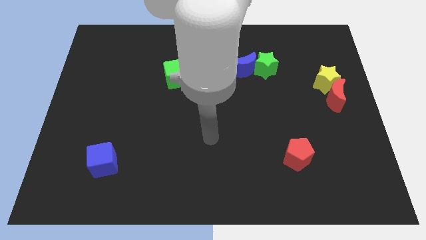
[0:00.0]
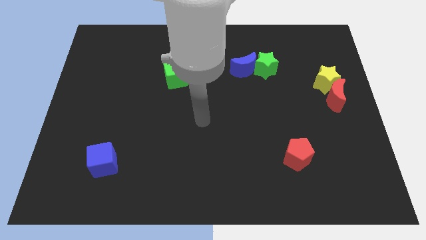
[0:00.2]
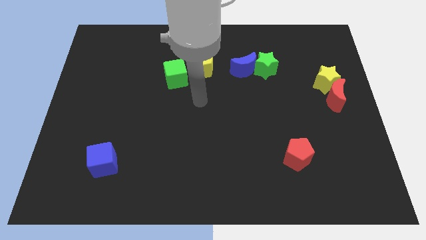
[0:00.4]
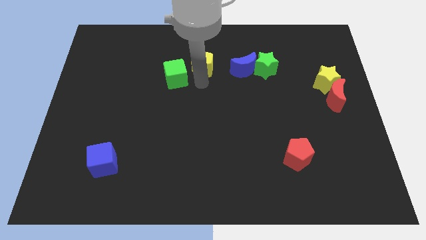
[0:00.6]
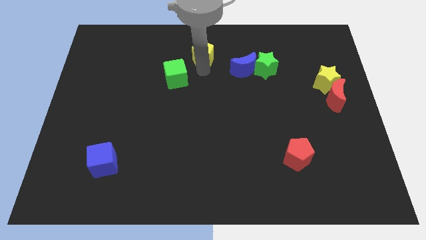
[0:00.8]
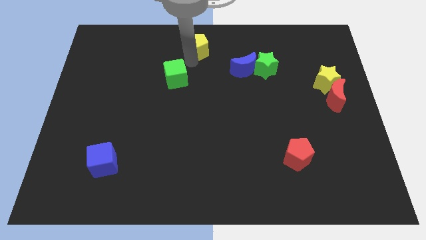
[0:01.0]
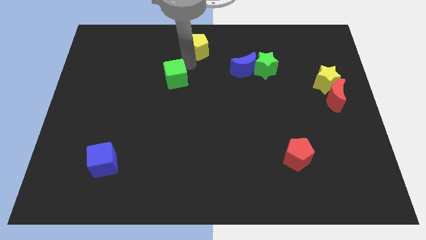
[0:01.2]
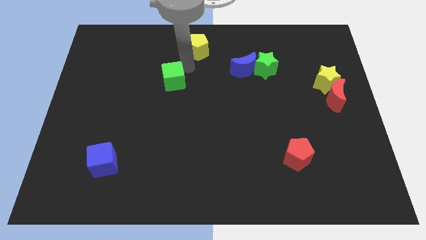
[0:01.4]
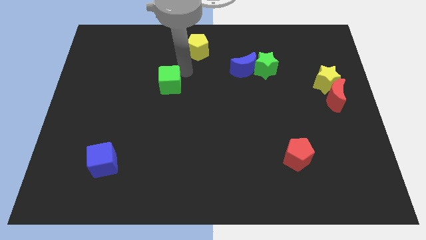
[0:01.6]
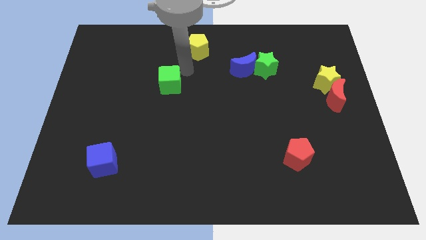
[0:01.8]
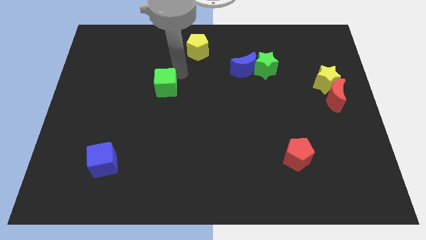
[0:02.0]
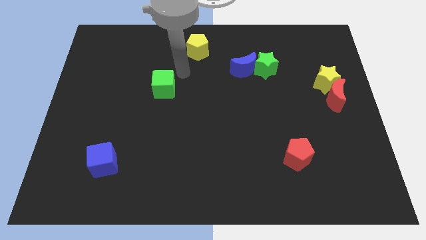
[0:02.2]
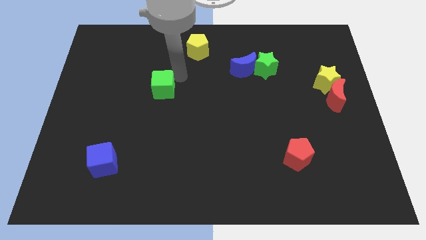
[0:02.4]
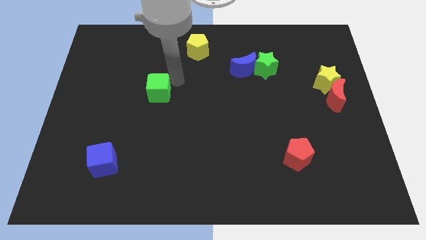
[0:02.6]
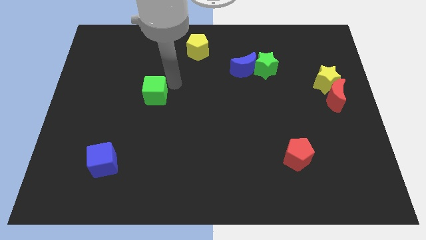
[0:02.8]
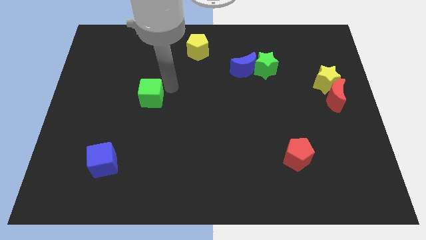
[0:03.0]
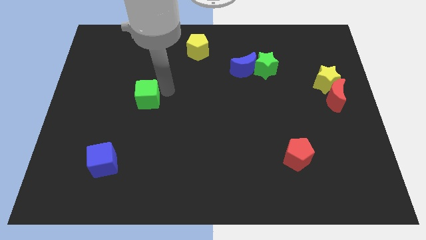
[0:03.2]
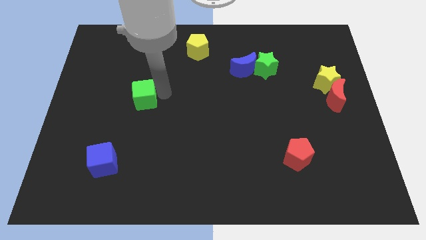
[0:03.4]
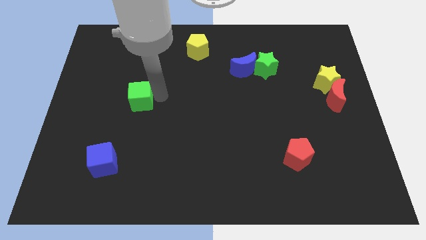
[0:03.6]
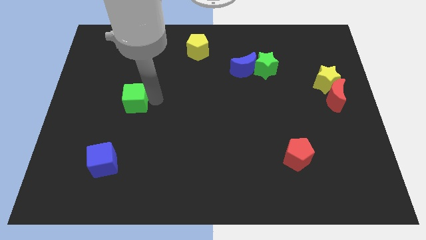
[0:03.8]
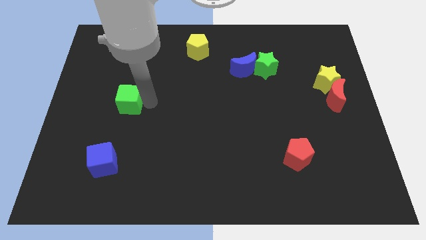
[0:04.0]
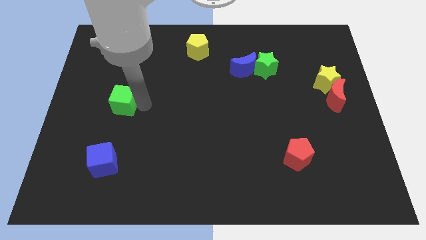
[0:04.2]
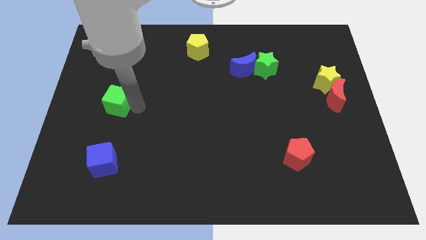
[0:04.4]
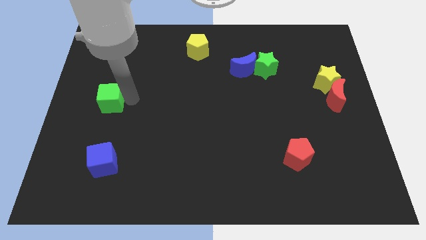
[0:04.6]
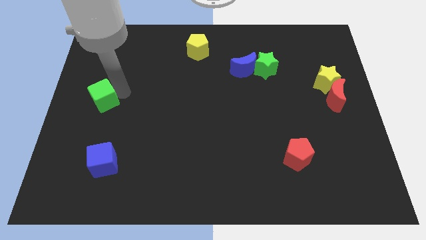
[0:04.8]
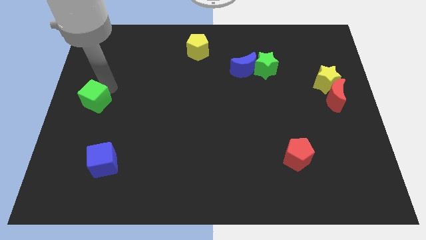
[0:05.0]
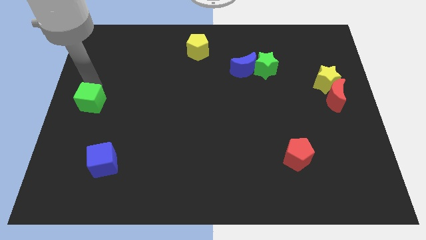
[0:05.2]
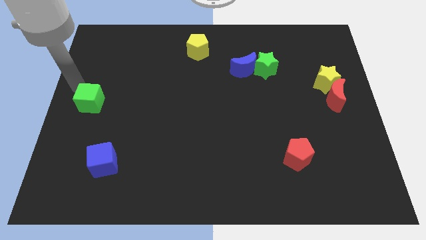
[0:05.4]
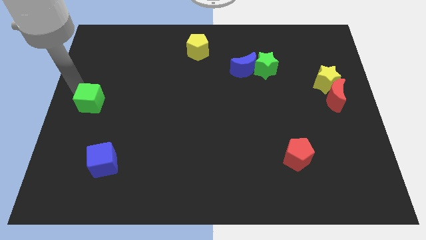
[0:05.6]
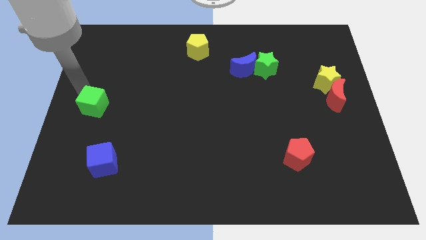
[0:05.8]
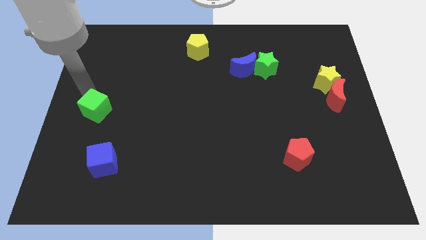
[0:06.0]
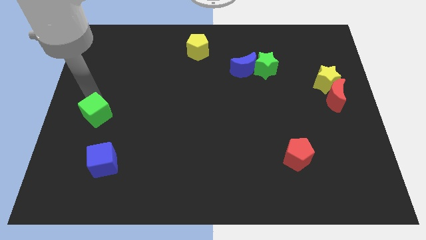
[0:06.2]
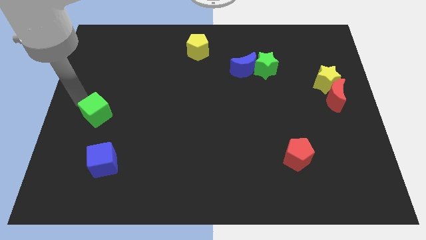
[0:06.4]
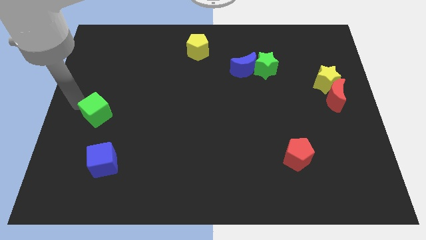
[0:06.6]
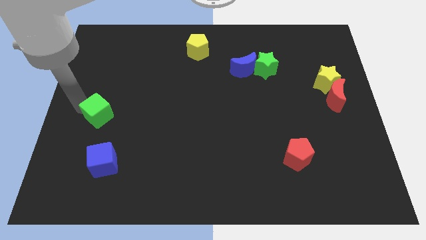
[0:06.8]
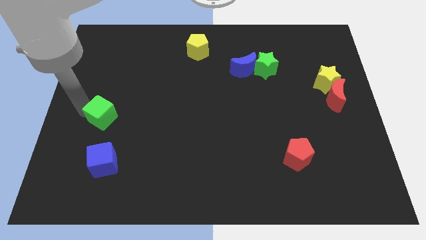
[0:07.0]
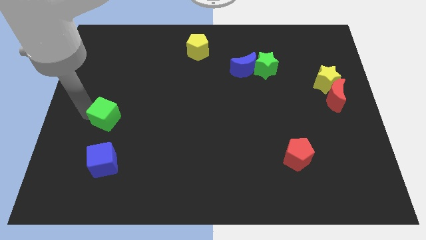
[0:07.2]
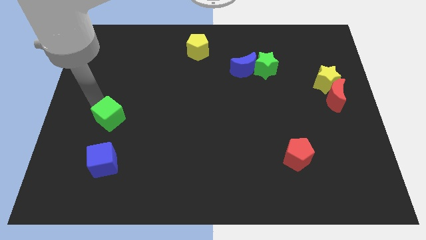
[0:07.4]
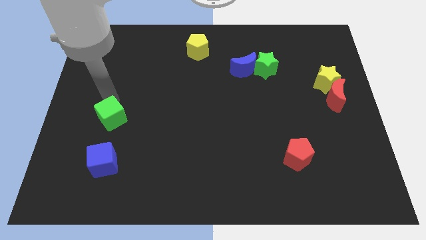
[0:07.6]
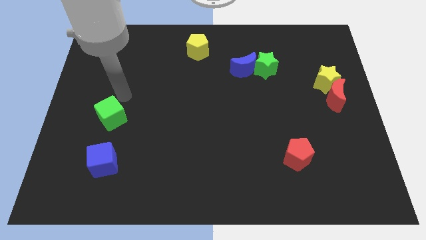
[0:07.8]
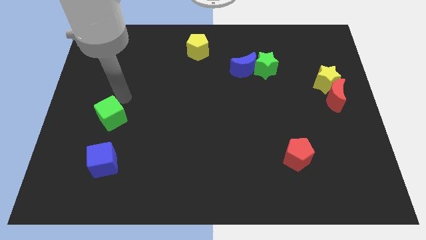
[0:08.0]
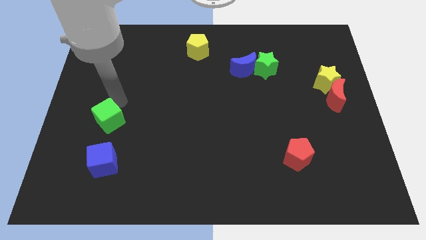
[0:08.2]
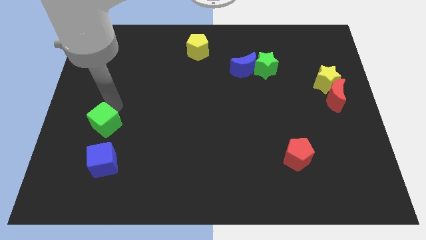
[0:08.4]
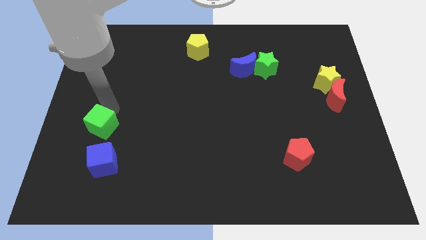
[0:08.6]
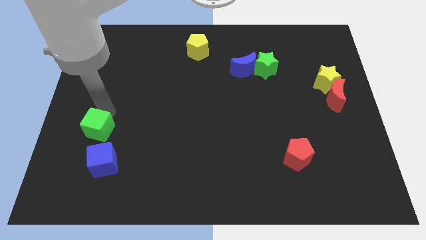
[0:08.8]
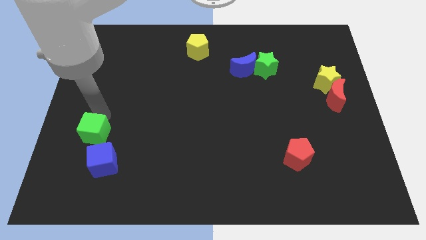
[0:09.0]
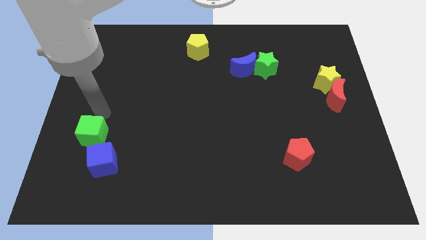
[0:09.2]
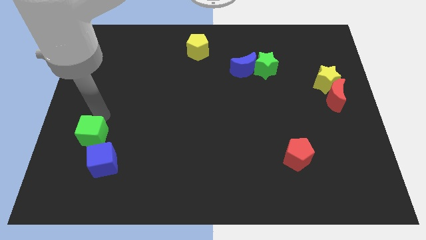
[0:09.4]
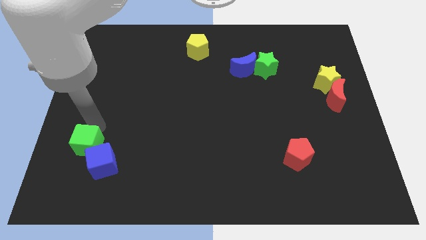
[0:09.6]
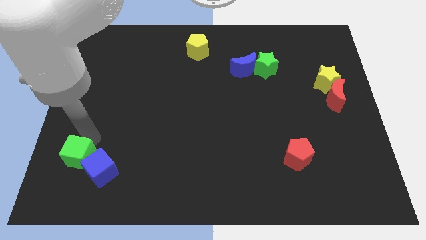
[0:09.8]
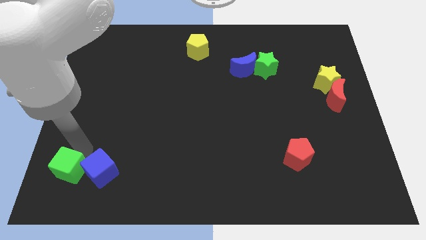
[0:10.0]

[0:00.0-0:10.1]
slide the green cube to the bottom left corner

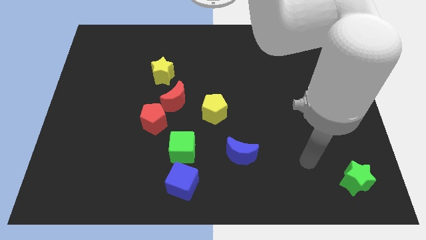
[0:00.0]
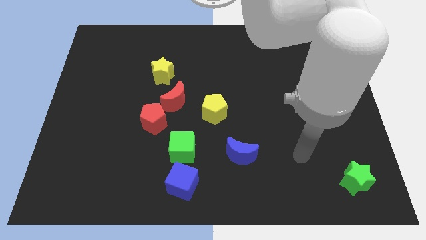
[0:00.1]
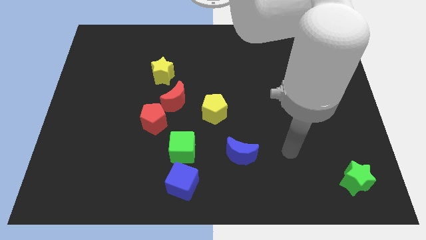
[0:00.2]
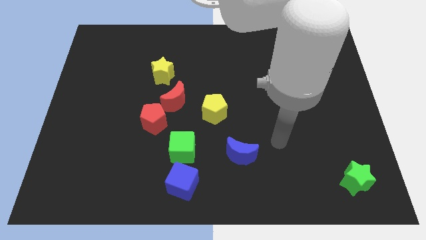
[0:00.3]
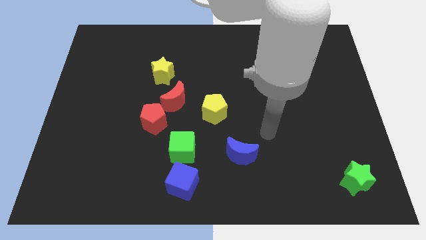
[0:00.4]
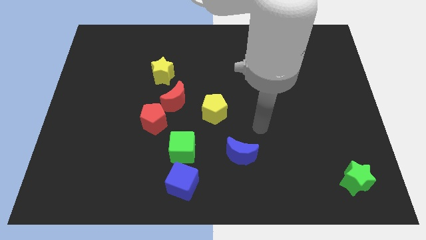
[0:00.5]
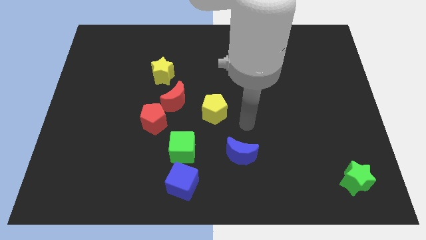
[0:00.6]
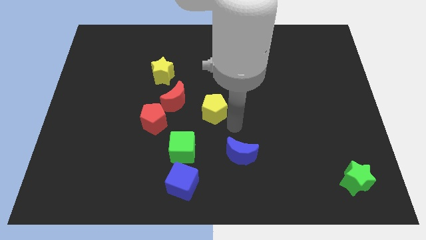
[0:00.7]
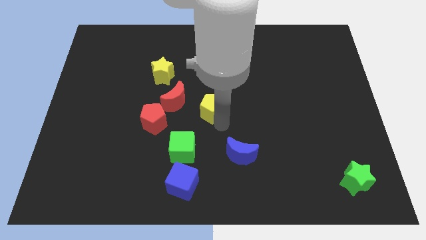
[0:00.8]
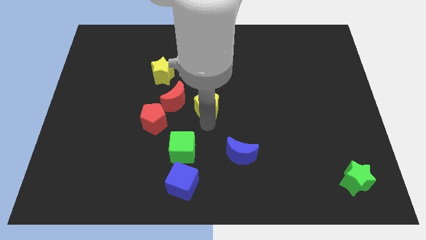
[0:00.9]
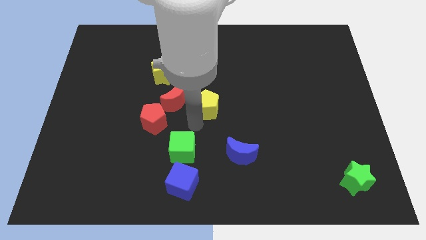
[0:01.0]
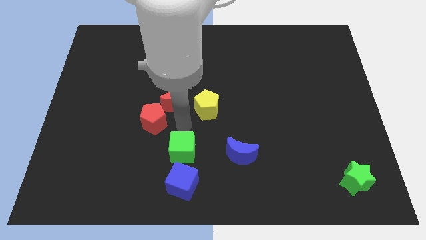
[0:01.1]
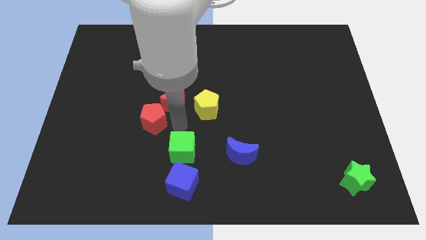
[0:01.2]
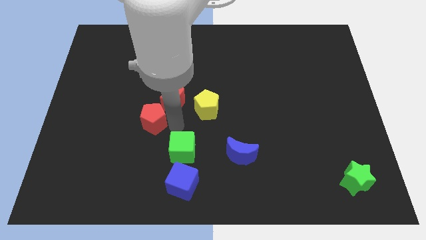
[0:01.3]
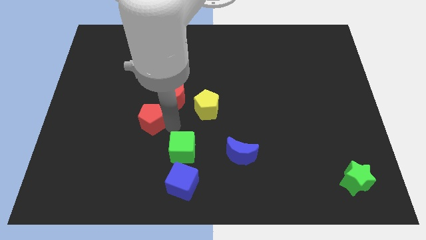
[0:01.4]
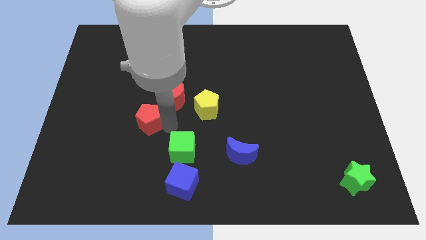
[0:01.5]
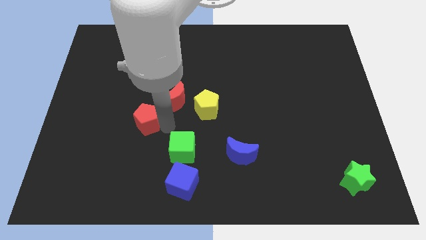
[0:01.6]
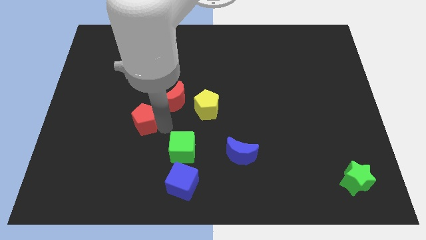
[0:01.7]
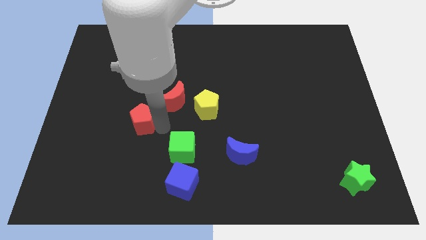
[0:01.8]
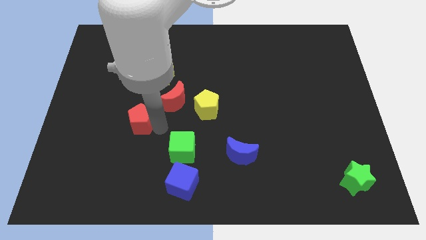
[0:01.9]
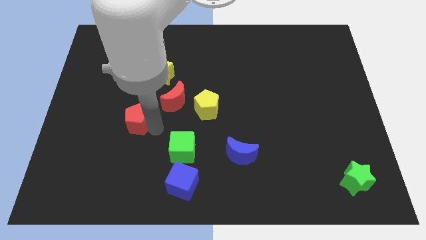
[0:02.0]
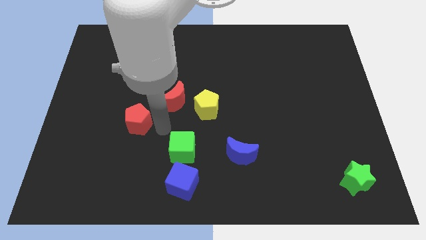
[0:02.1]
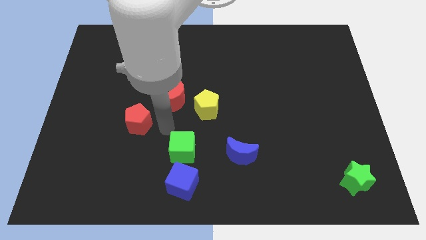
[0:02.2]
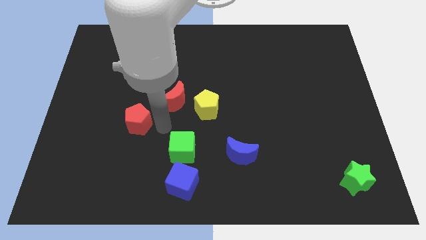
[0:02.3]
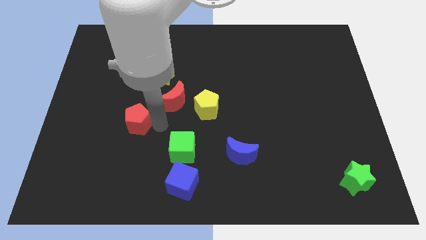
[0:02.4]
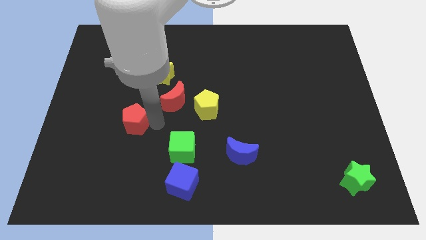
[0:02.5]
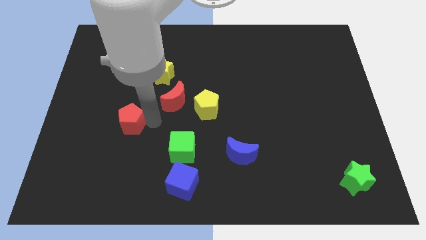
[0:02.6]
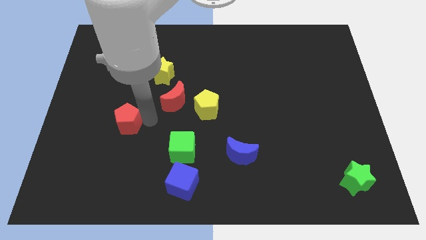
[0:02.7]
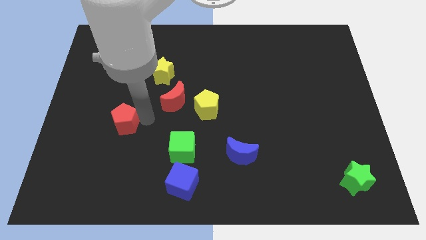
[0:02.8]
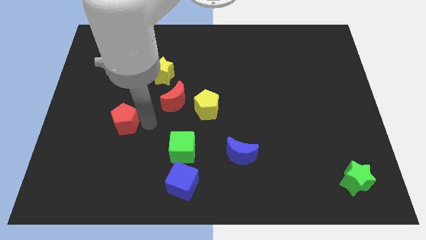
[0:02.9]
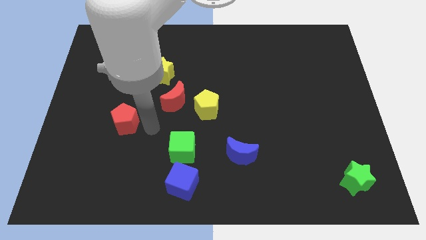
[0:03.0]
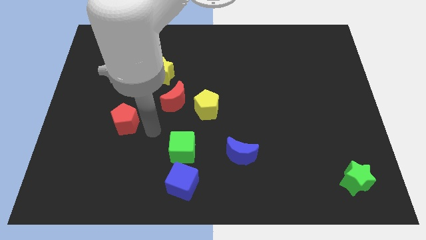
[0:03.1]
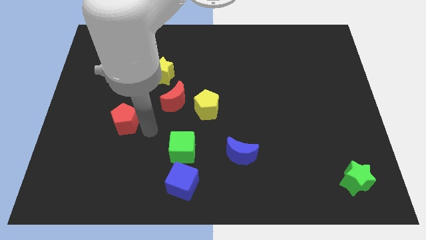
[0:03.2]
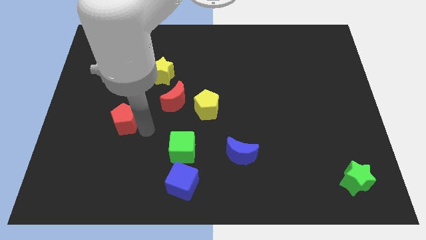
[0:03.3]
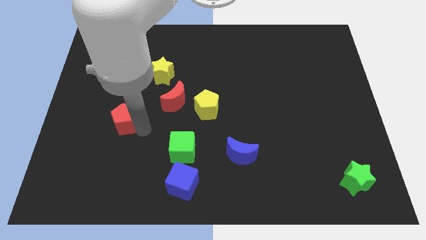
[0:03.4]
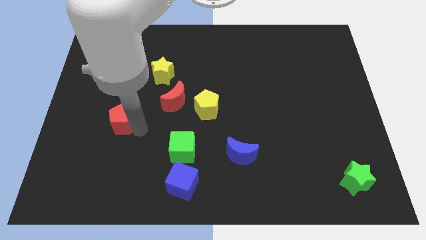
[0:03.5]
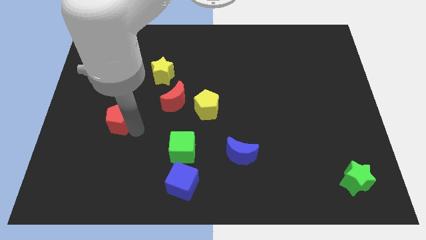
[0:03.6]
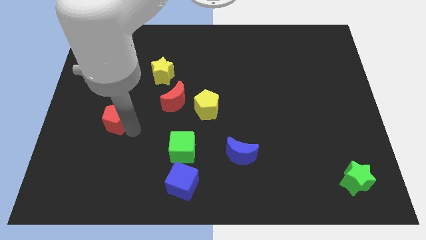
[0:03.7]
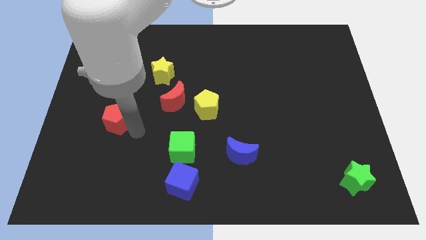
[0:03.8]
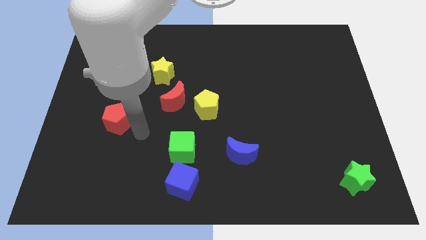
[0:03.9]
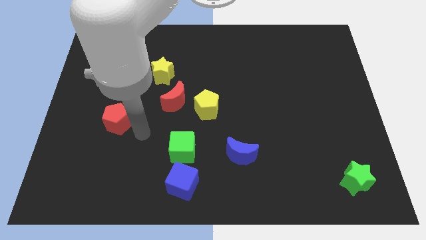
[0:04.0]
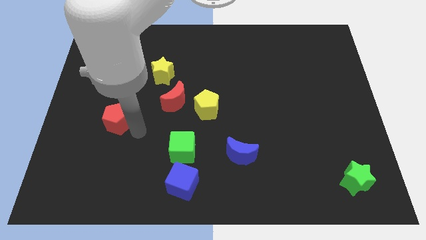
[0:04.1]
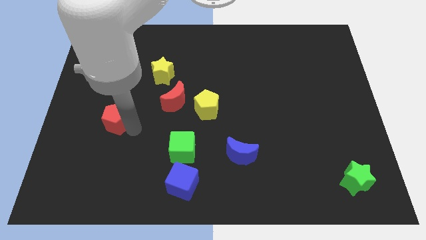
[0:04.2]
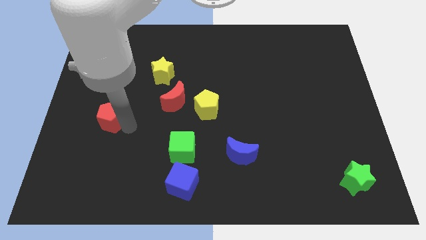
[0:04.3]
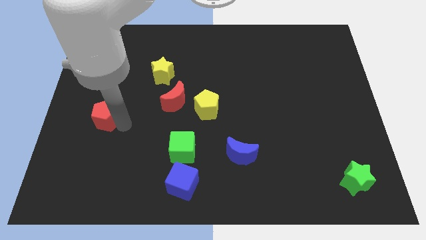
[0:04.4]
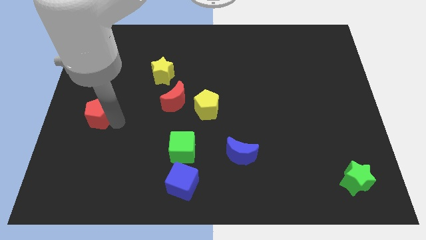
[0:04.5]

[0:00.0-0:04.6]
put the red pentagon to the center left
